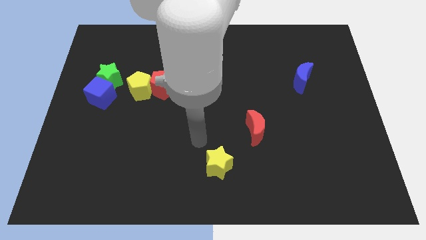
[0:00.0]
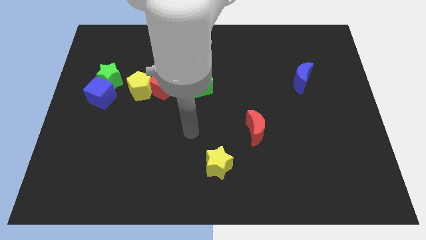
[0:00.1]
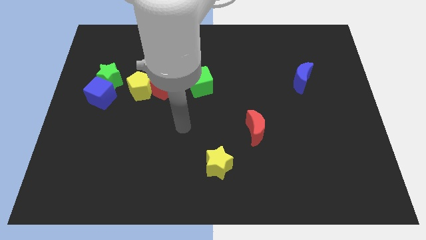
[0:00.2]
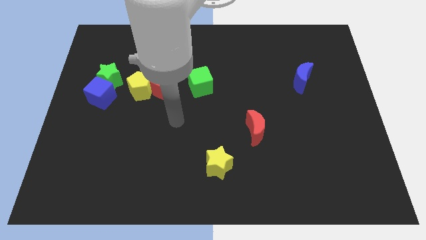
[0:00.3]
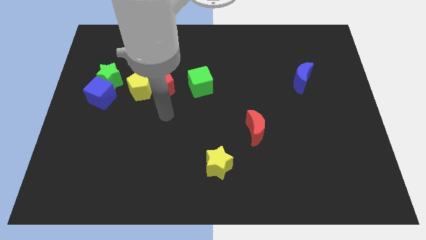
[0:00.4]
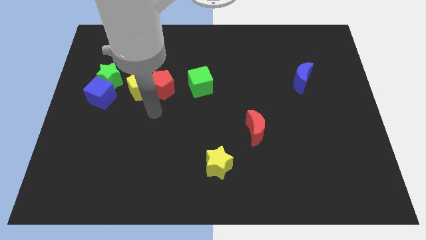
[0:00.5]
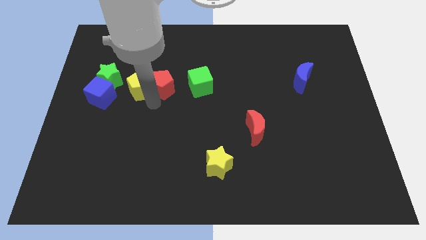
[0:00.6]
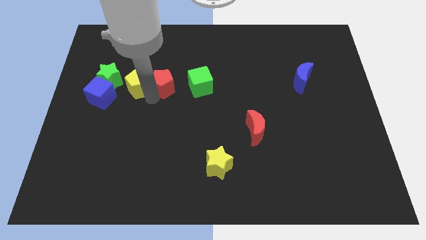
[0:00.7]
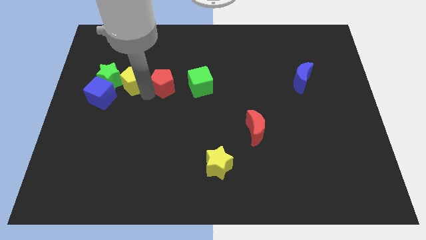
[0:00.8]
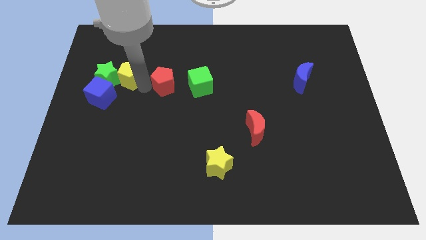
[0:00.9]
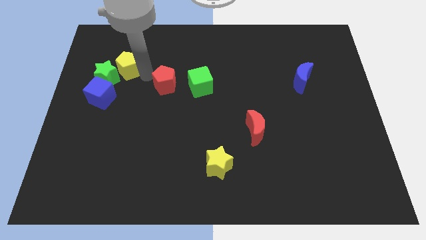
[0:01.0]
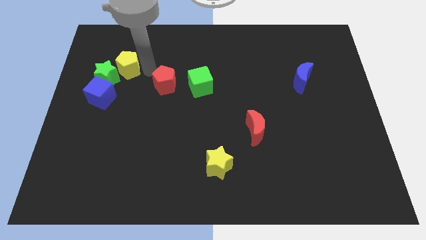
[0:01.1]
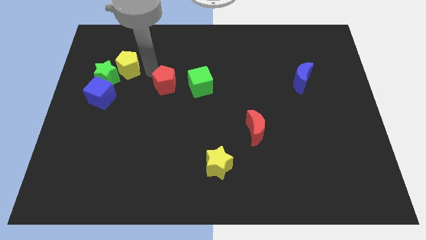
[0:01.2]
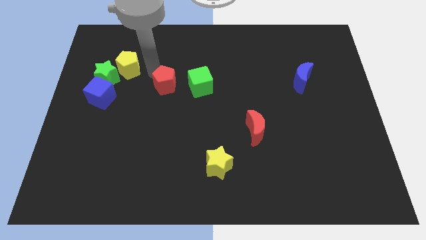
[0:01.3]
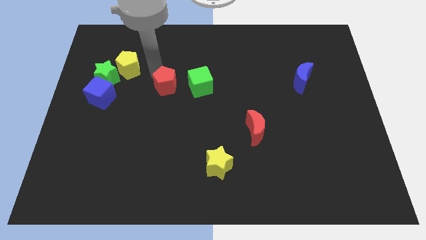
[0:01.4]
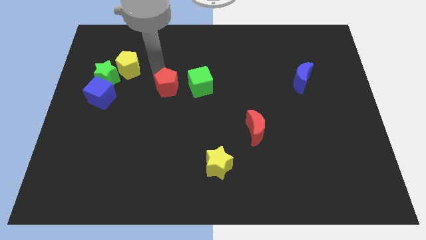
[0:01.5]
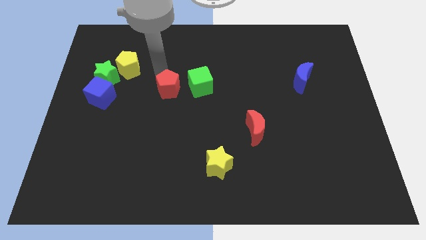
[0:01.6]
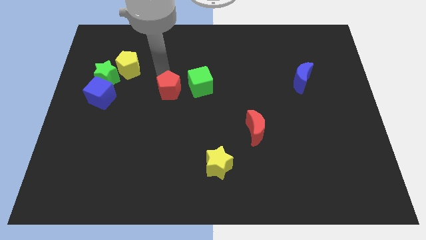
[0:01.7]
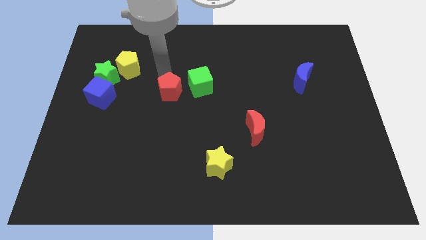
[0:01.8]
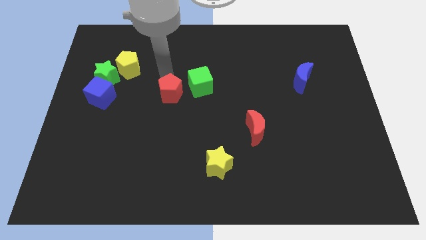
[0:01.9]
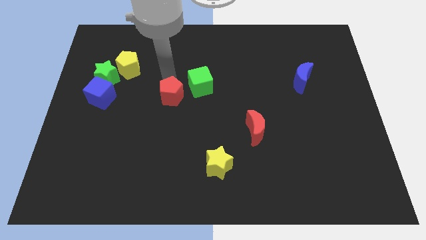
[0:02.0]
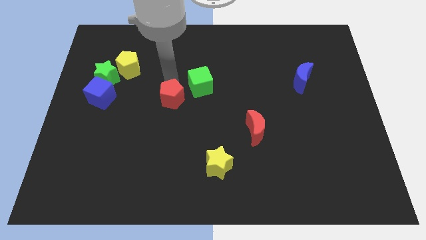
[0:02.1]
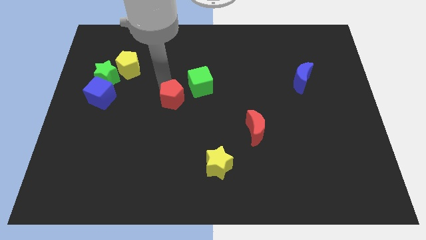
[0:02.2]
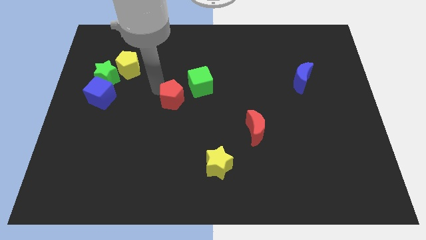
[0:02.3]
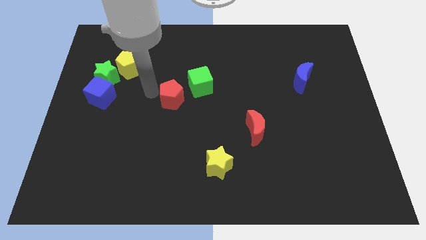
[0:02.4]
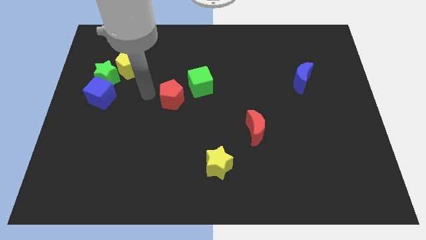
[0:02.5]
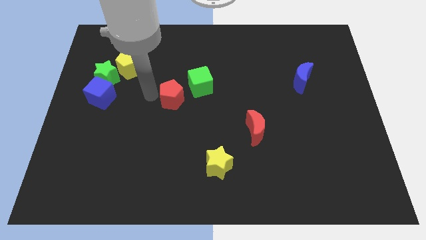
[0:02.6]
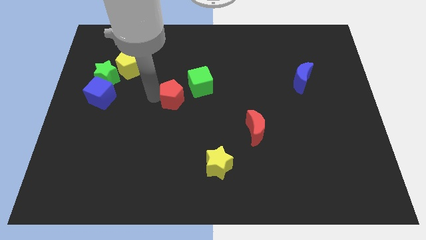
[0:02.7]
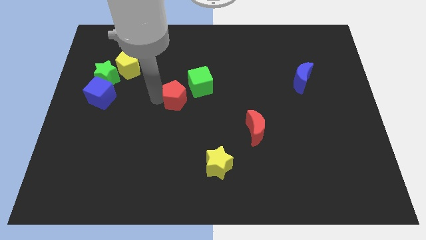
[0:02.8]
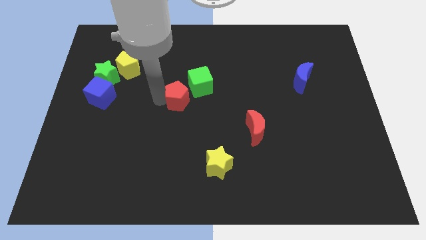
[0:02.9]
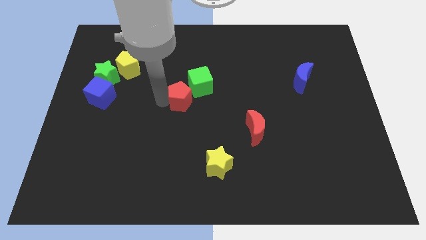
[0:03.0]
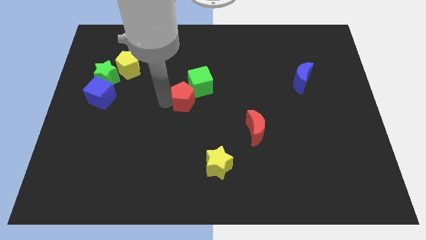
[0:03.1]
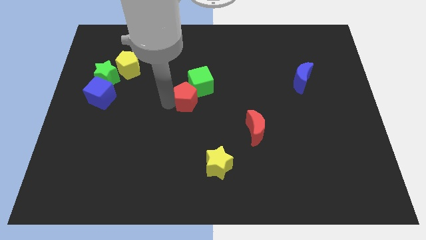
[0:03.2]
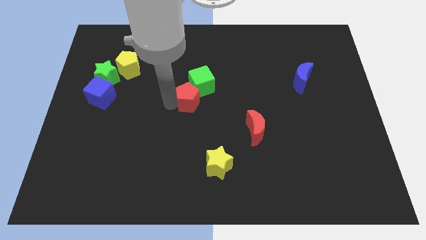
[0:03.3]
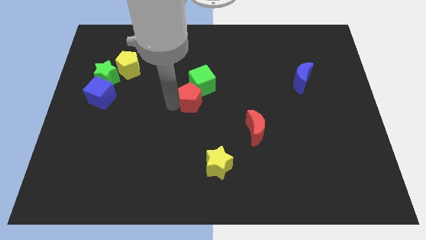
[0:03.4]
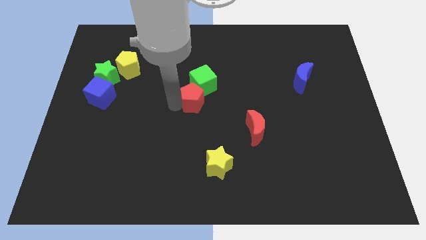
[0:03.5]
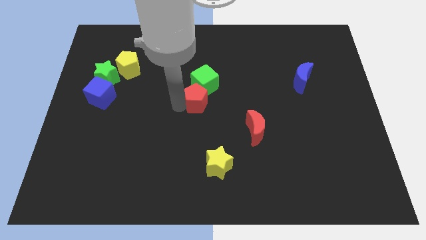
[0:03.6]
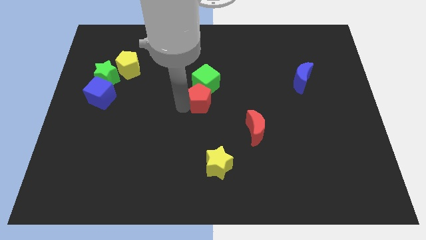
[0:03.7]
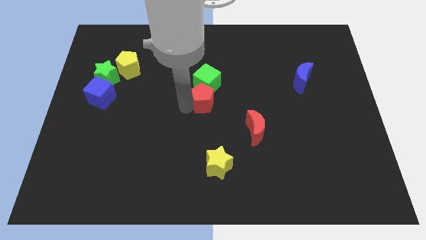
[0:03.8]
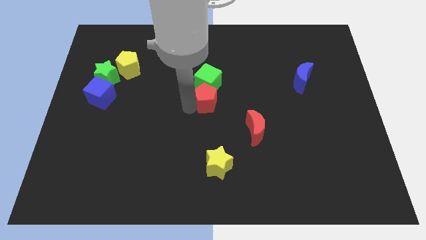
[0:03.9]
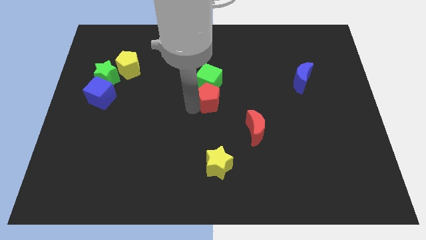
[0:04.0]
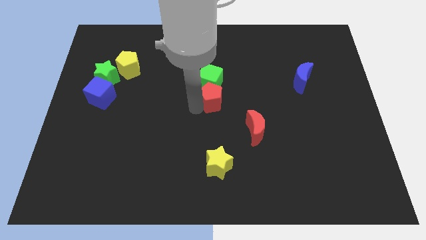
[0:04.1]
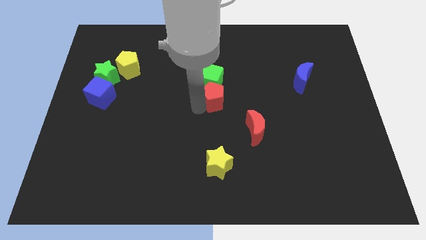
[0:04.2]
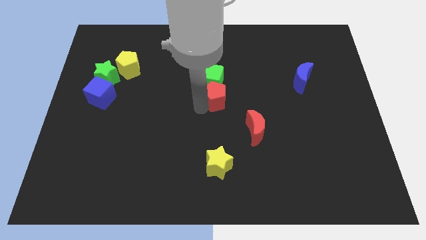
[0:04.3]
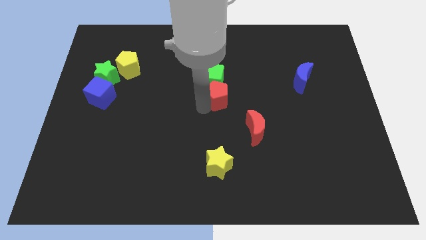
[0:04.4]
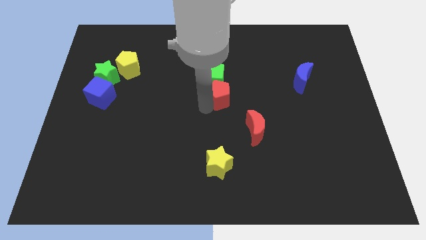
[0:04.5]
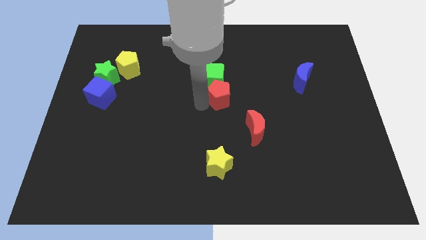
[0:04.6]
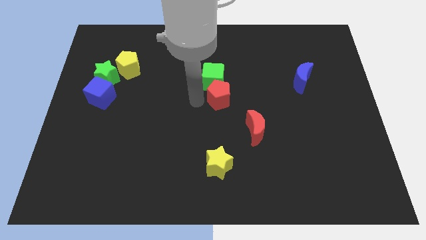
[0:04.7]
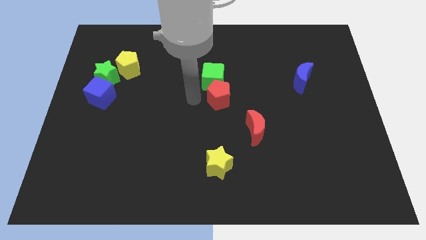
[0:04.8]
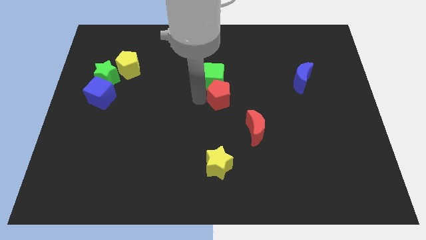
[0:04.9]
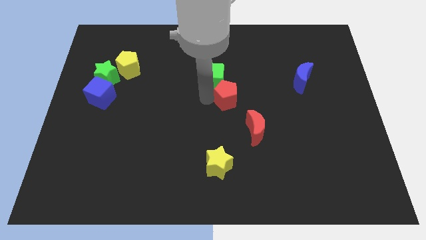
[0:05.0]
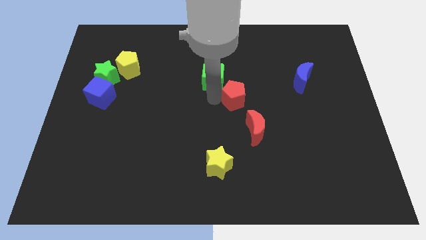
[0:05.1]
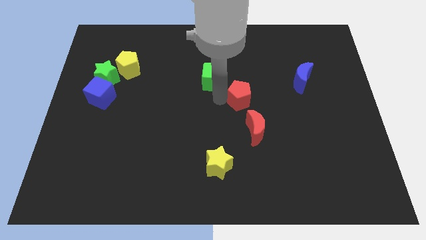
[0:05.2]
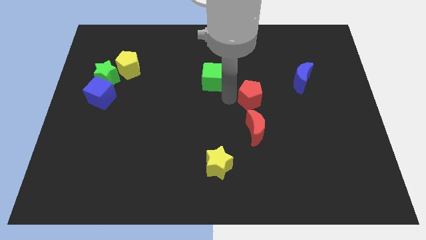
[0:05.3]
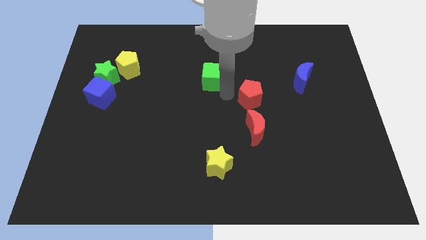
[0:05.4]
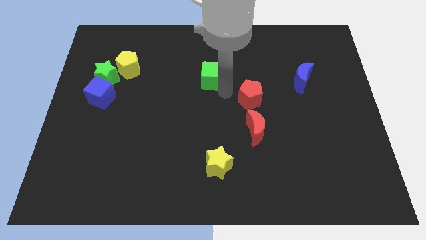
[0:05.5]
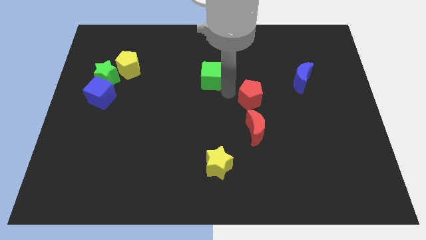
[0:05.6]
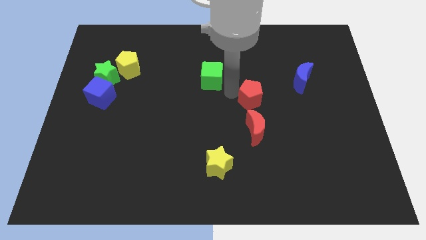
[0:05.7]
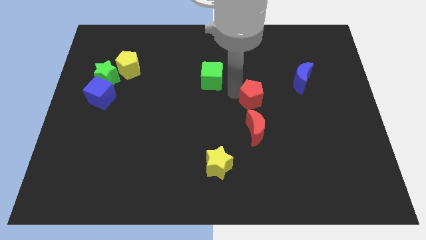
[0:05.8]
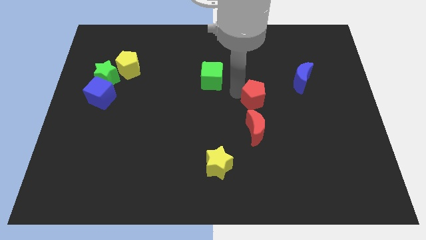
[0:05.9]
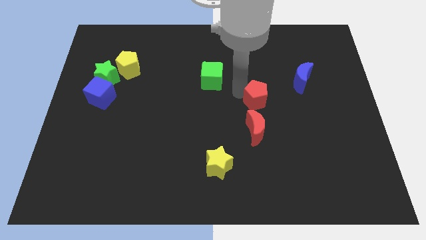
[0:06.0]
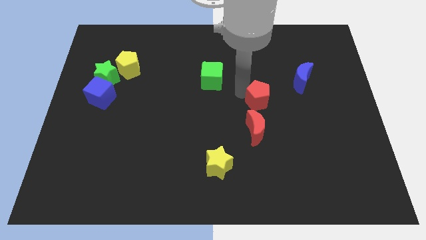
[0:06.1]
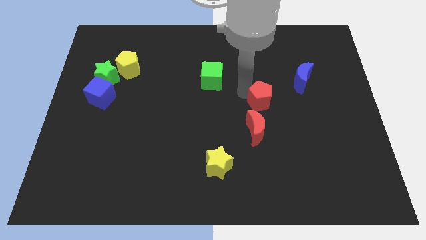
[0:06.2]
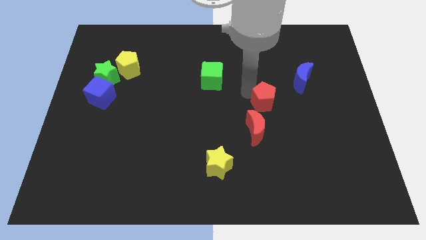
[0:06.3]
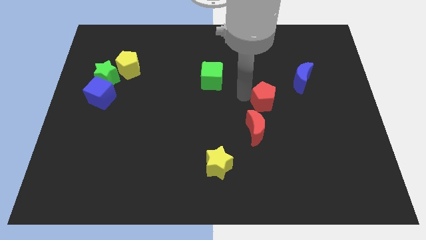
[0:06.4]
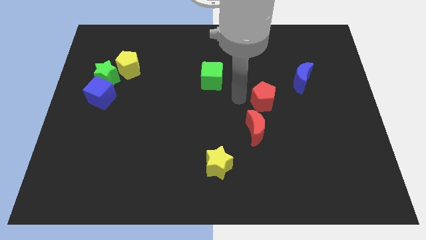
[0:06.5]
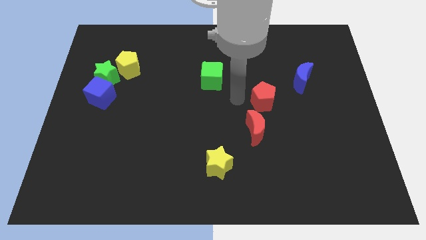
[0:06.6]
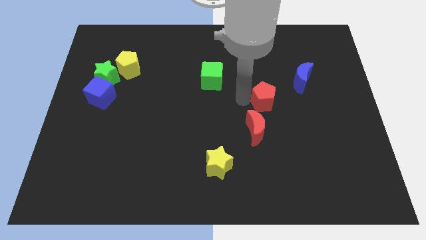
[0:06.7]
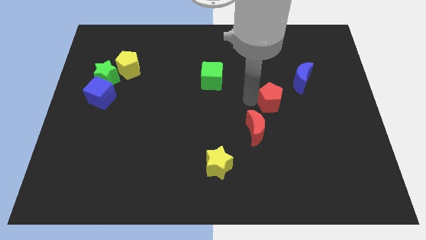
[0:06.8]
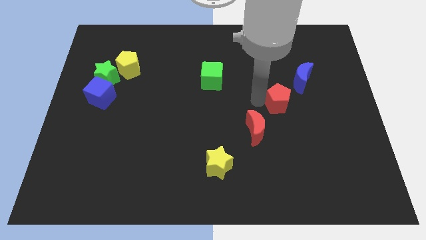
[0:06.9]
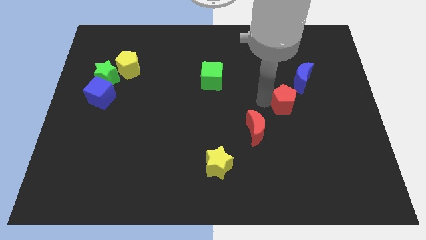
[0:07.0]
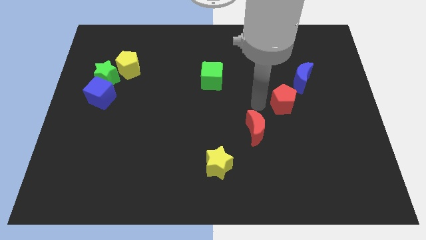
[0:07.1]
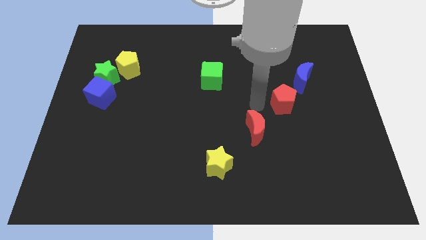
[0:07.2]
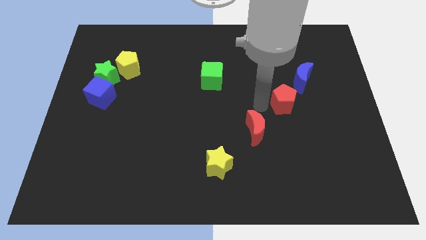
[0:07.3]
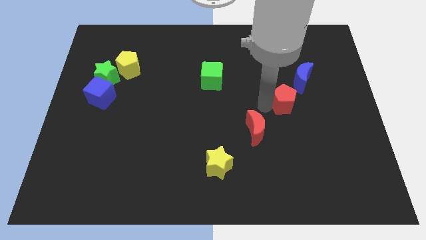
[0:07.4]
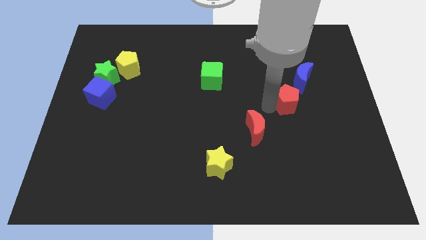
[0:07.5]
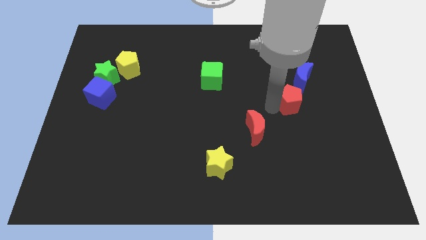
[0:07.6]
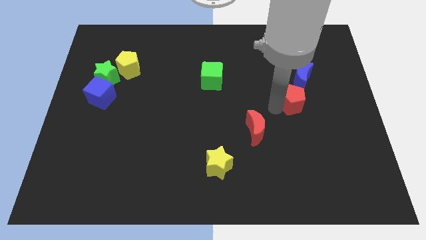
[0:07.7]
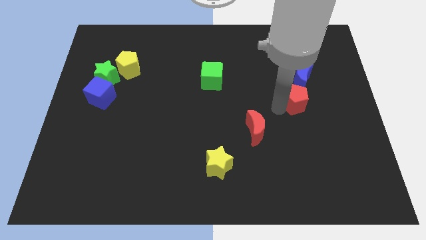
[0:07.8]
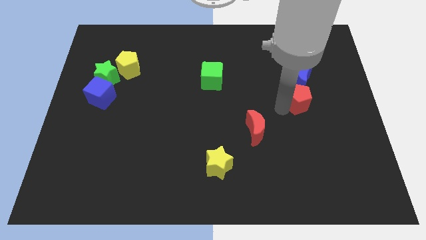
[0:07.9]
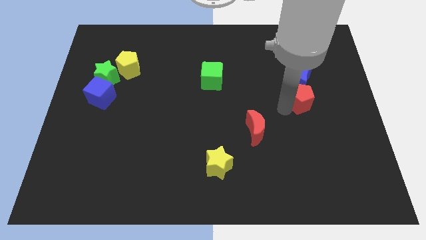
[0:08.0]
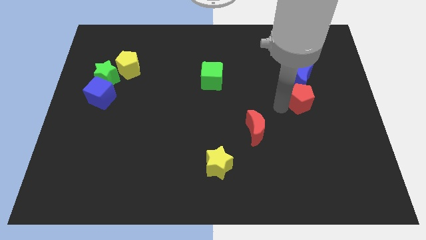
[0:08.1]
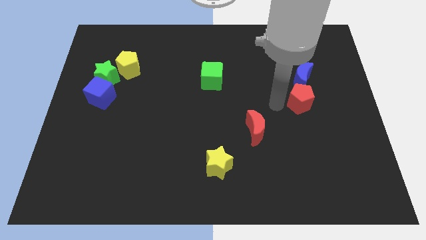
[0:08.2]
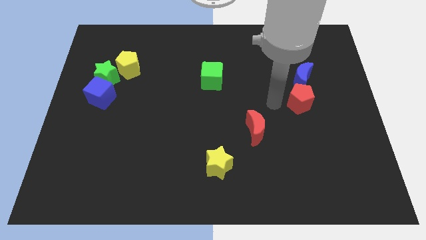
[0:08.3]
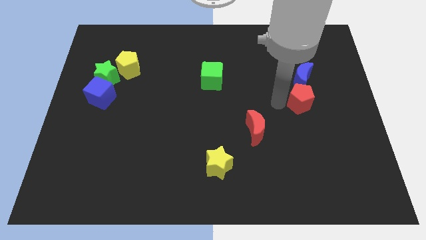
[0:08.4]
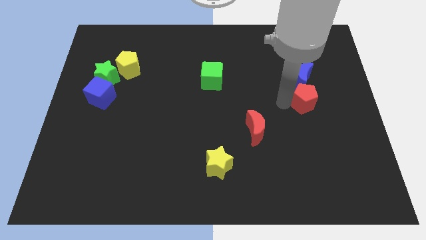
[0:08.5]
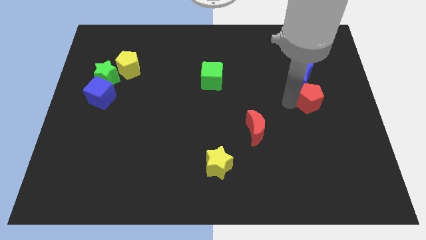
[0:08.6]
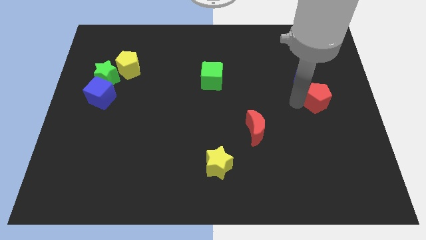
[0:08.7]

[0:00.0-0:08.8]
move the red pentagon to the right side of the board
